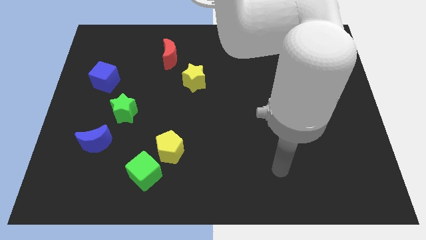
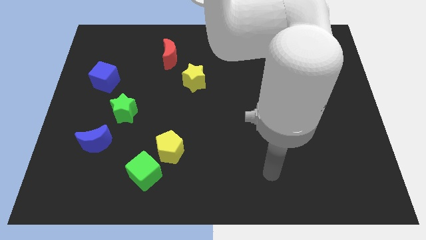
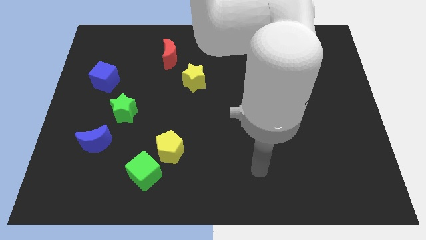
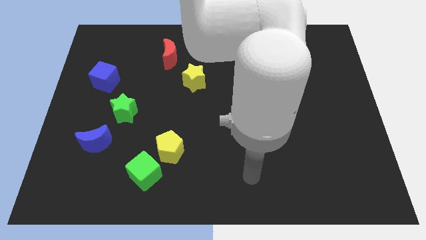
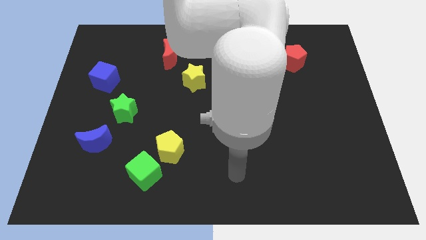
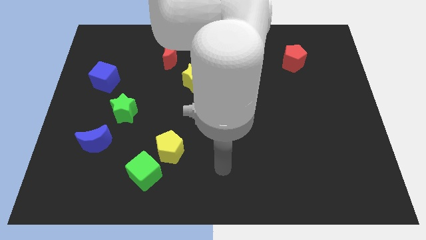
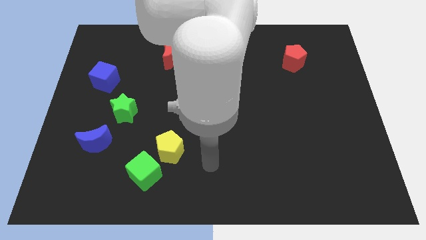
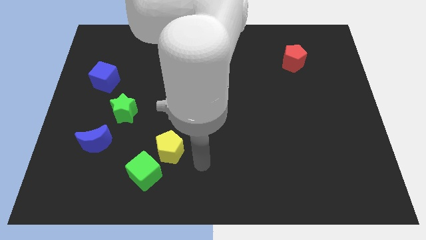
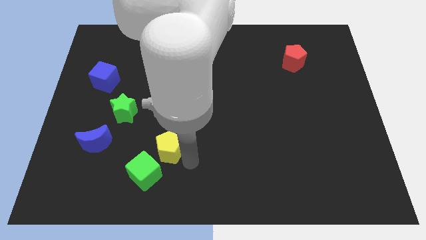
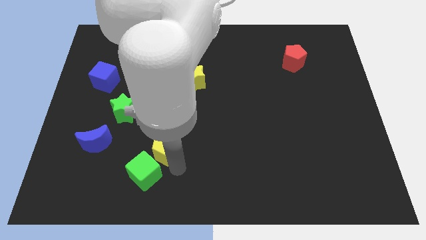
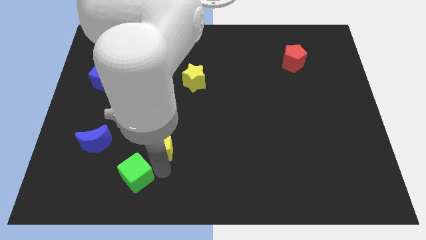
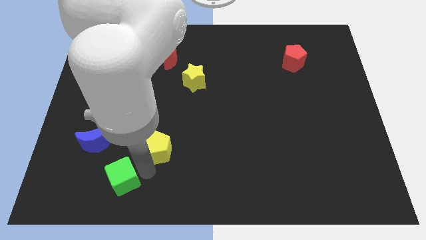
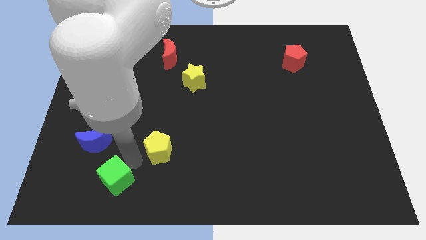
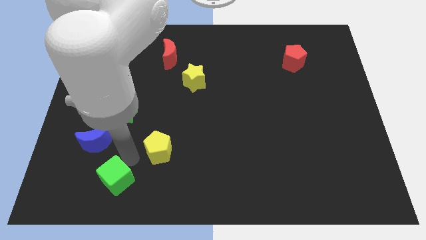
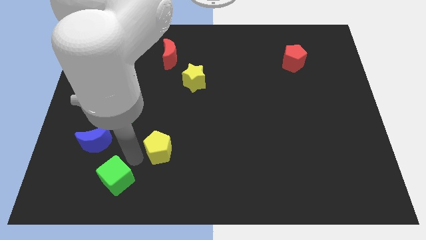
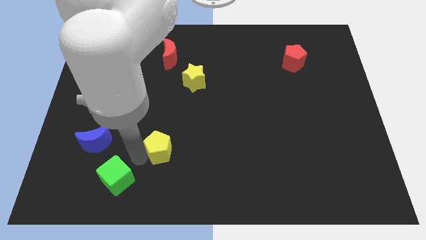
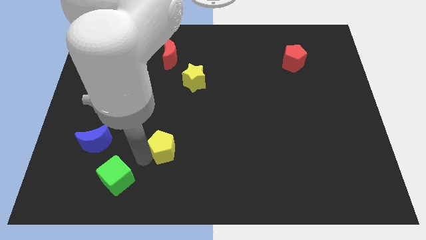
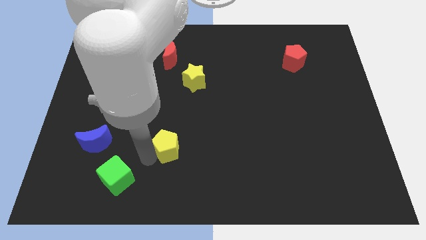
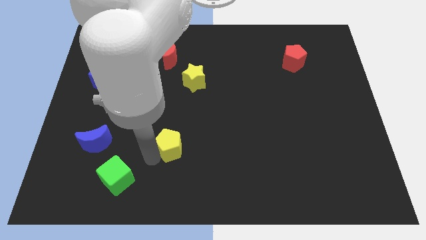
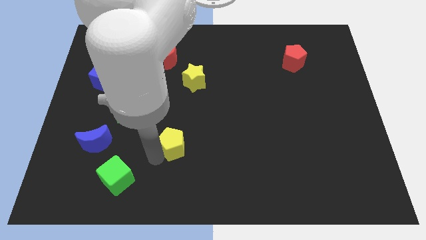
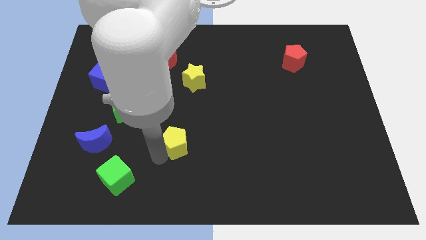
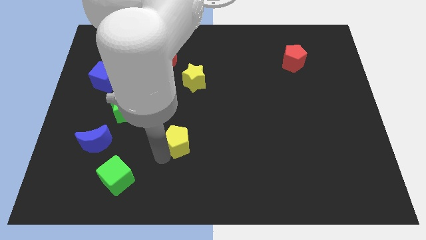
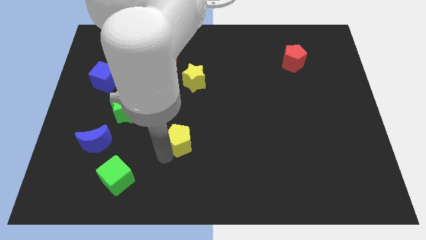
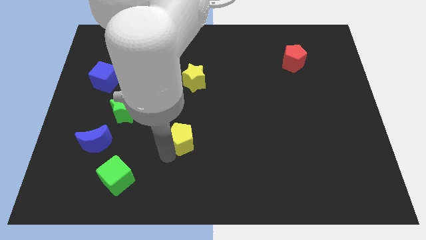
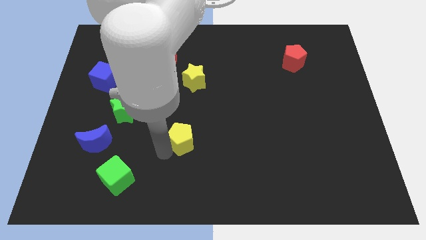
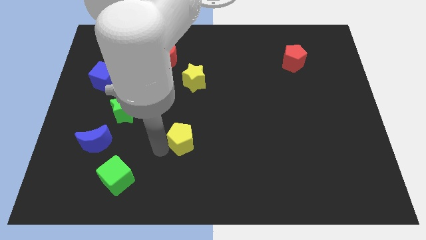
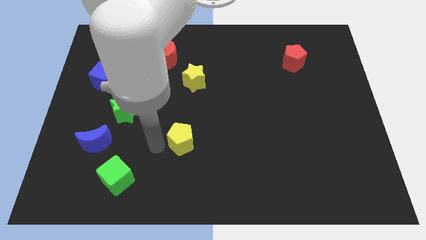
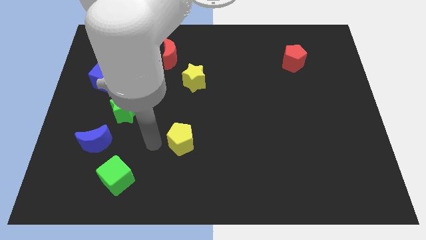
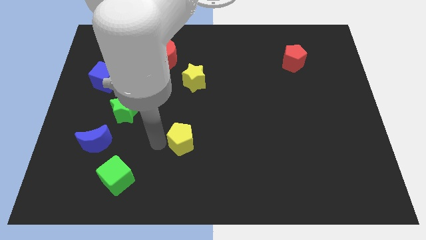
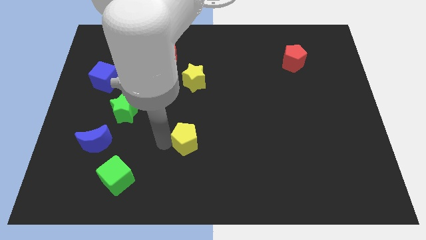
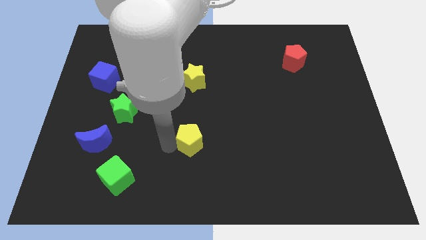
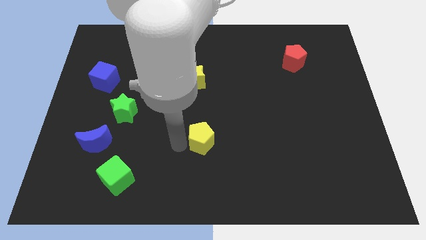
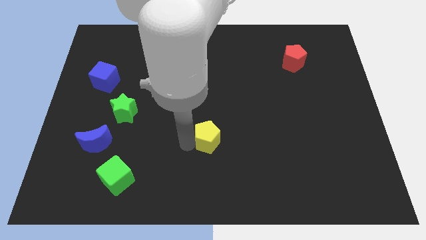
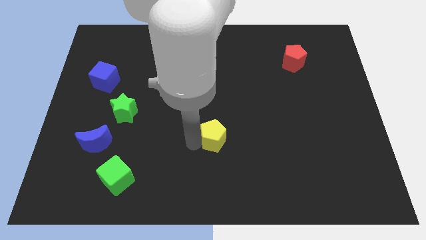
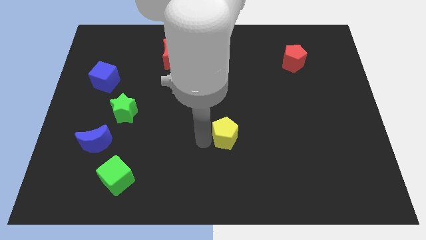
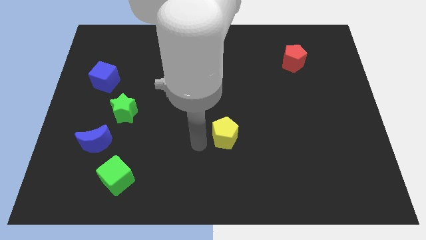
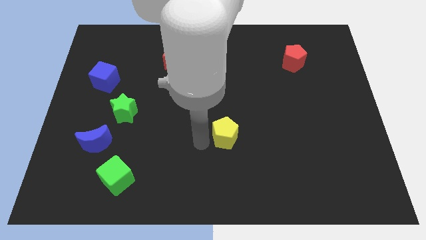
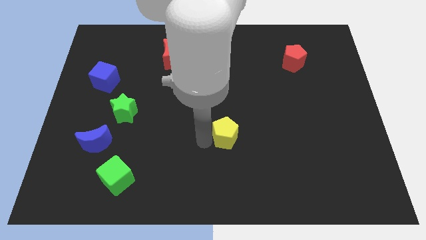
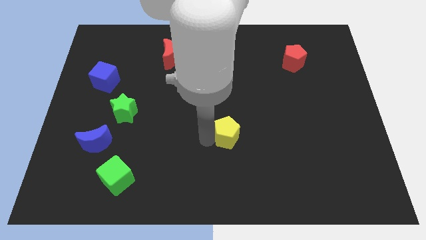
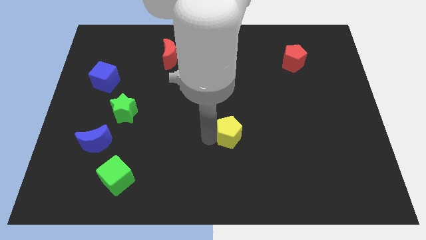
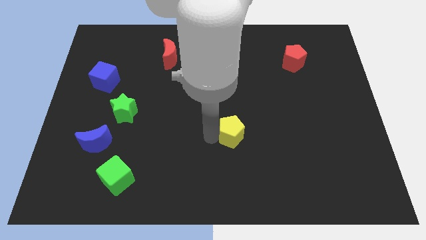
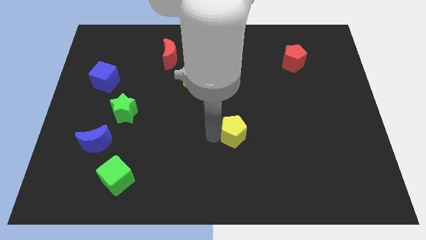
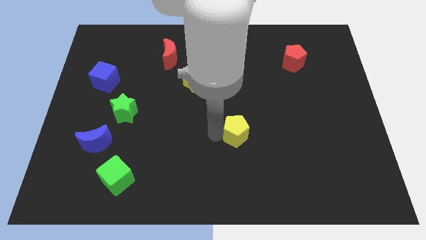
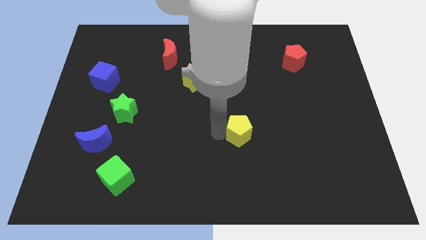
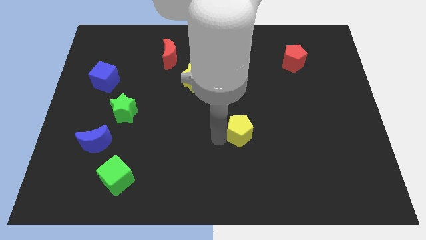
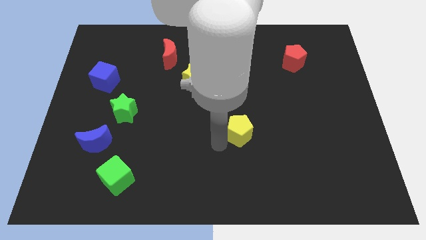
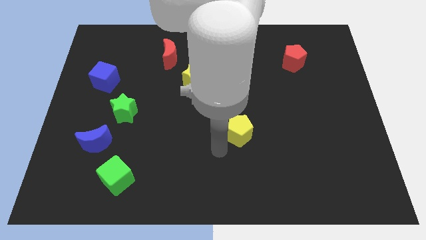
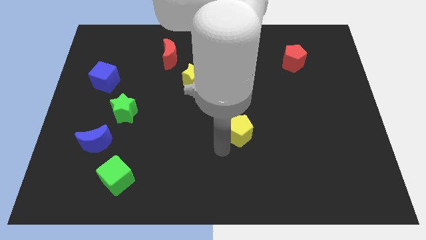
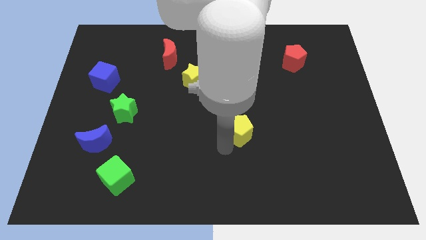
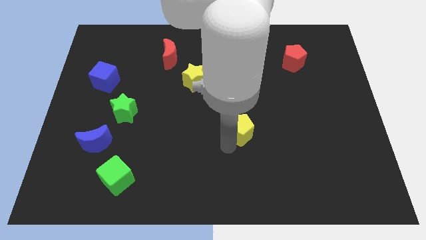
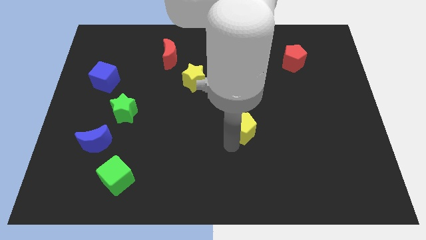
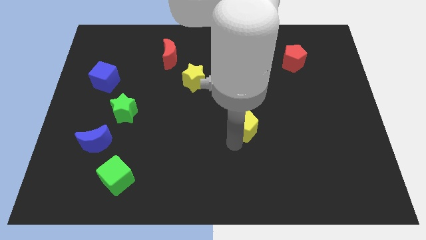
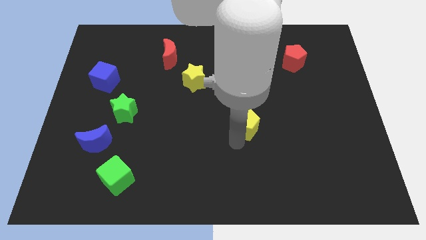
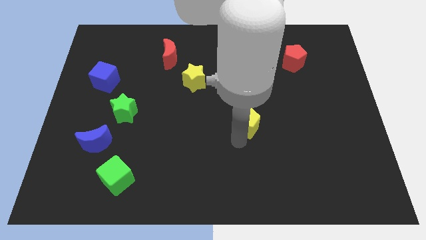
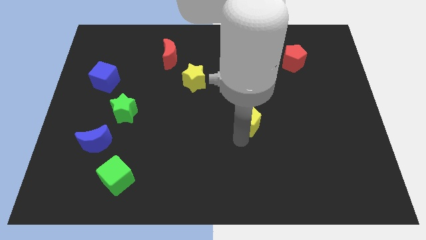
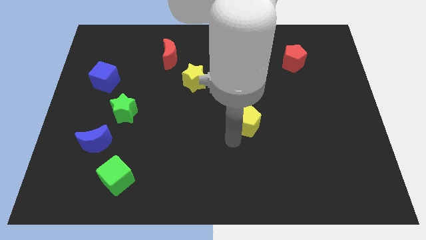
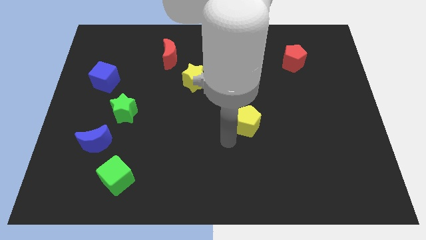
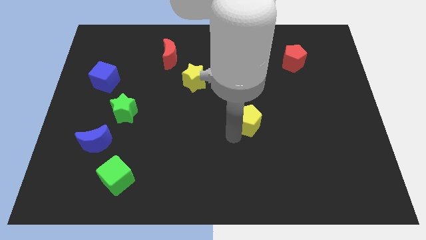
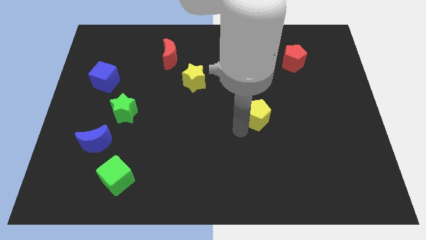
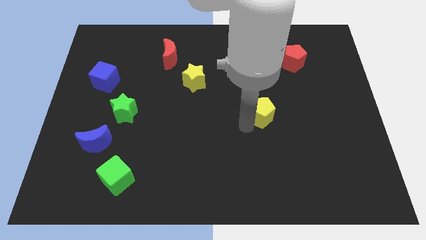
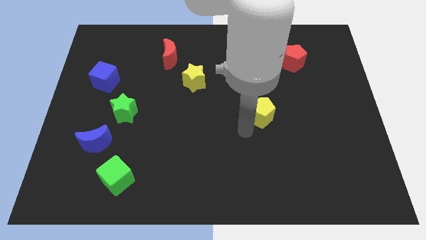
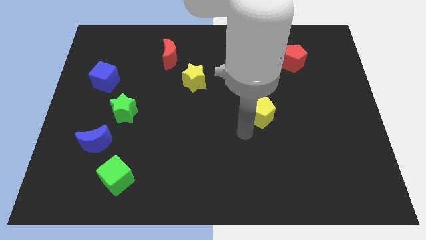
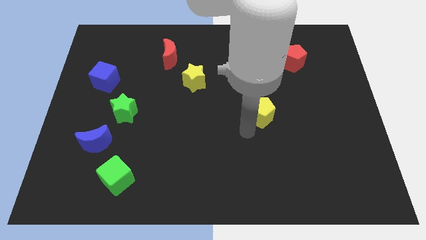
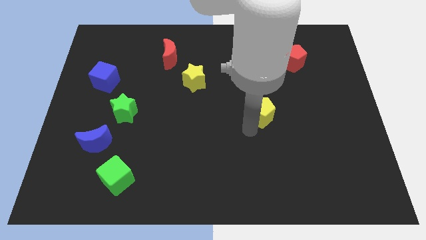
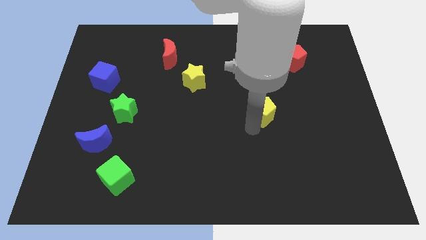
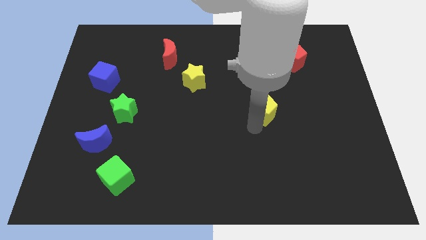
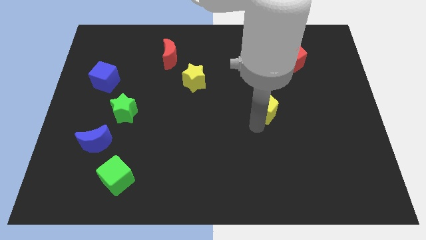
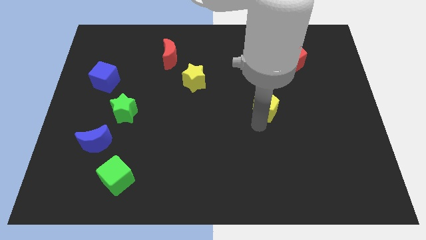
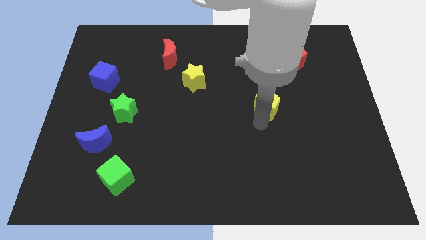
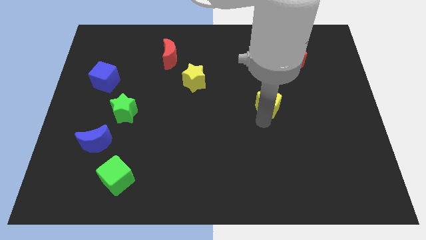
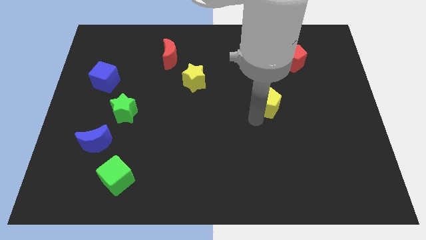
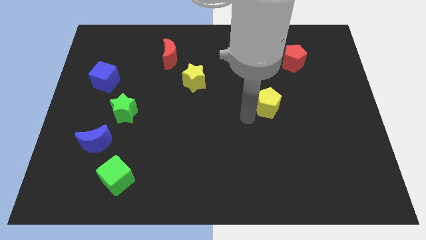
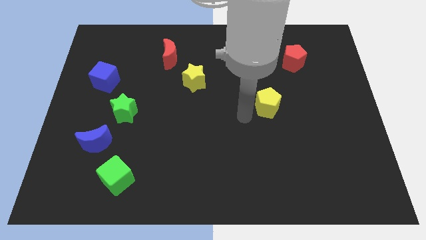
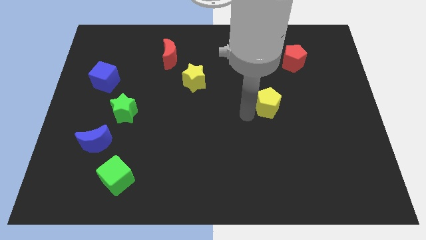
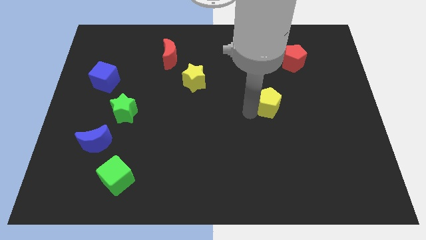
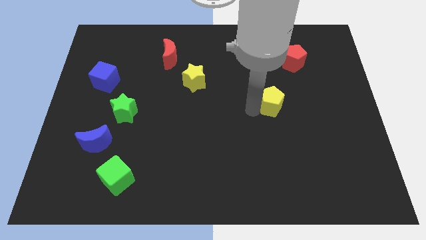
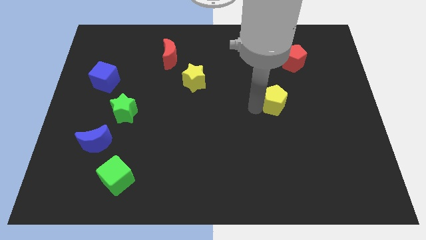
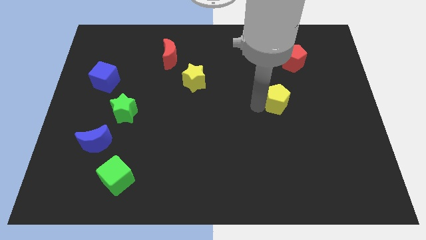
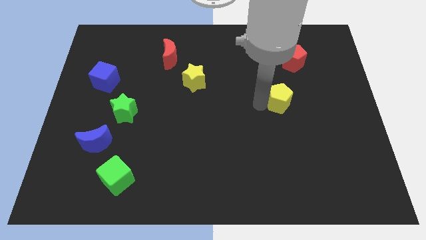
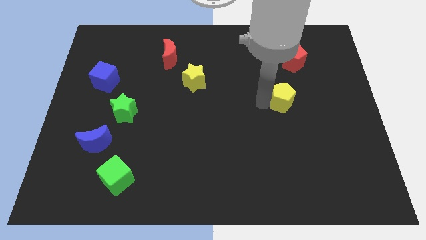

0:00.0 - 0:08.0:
push the yellow pentagon to the bottom of the red pentagon
